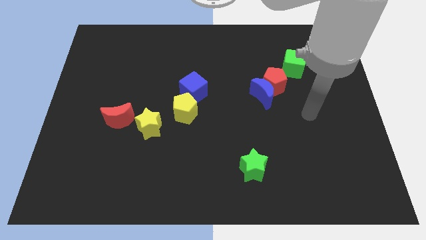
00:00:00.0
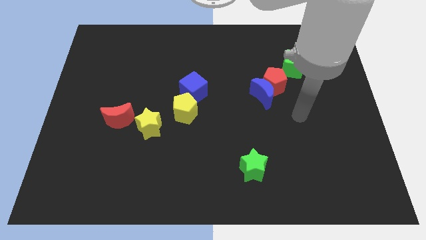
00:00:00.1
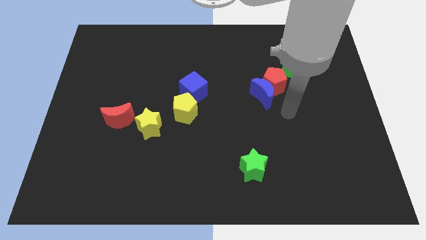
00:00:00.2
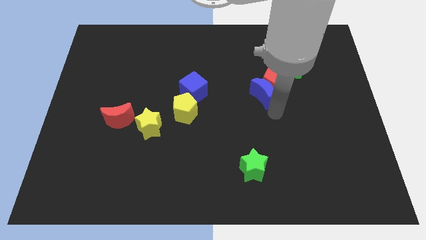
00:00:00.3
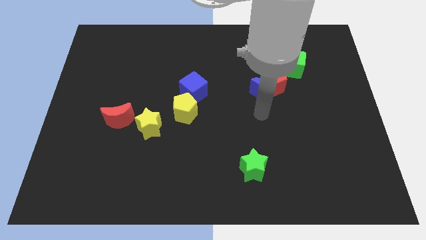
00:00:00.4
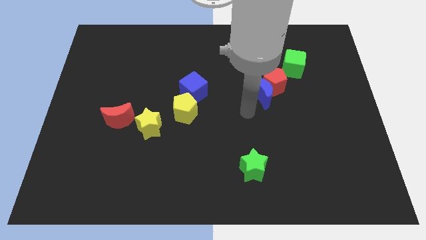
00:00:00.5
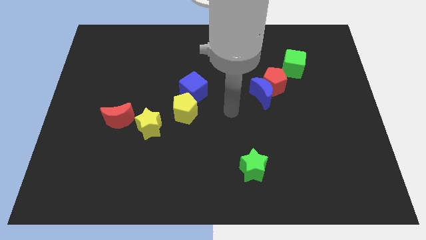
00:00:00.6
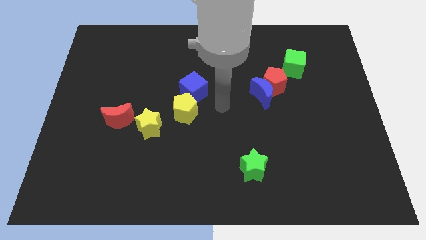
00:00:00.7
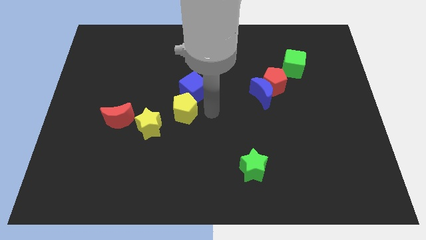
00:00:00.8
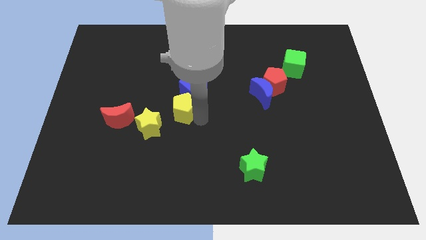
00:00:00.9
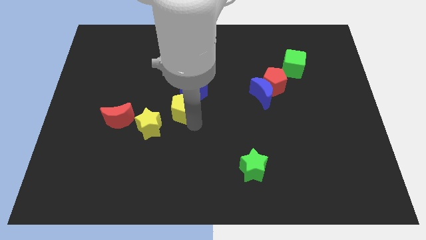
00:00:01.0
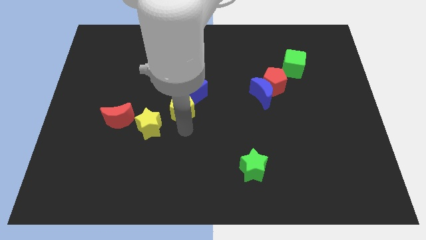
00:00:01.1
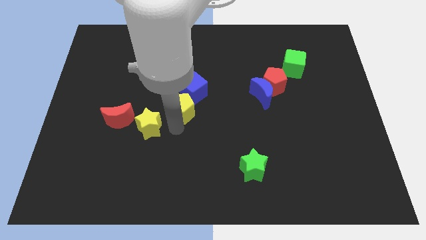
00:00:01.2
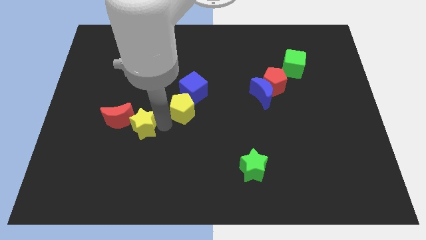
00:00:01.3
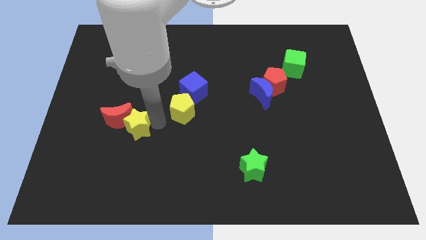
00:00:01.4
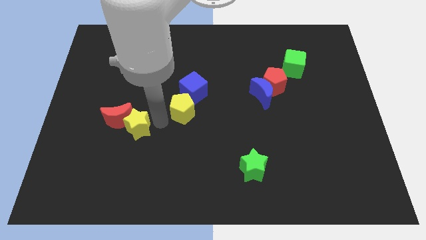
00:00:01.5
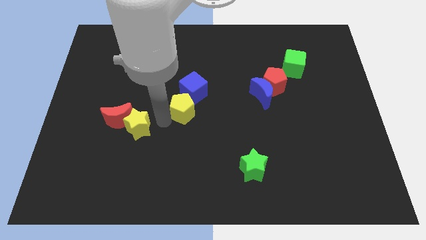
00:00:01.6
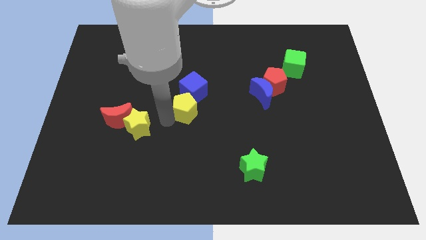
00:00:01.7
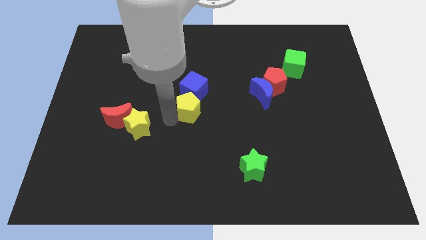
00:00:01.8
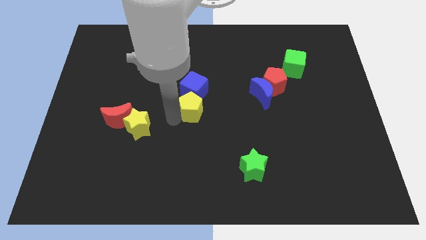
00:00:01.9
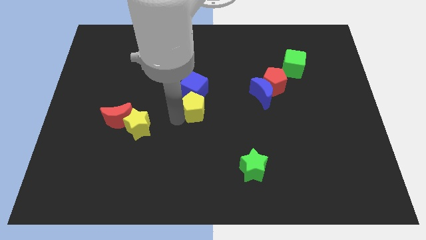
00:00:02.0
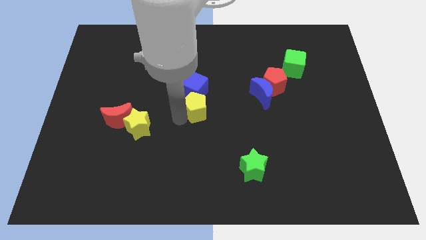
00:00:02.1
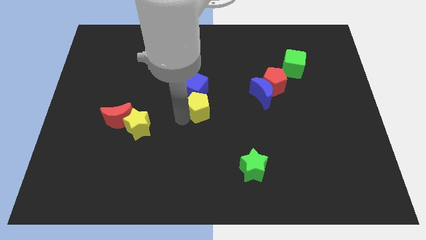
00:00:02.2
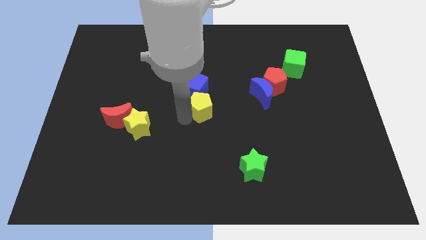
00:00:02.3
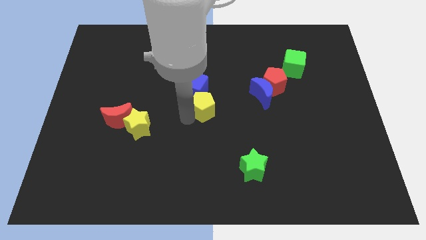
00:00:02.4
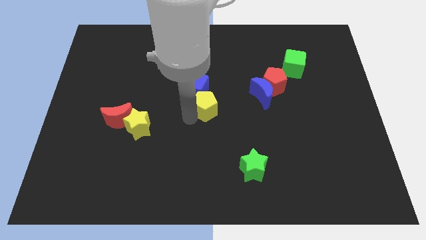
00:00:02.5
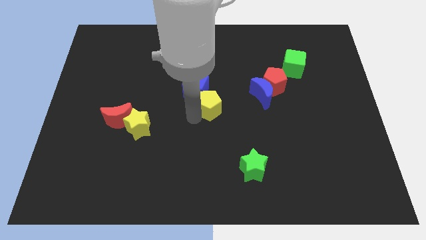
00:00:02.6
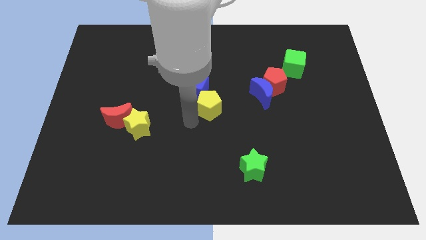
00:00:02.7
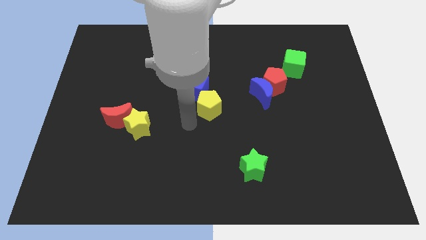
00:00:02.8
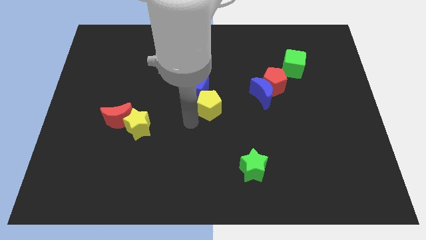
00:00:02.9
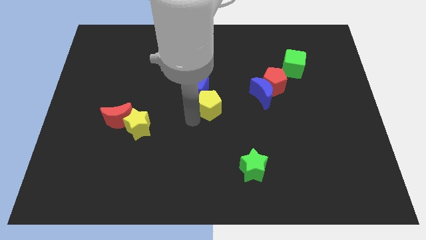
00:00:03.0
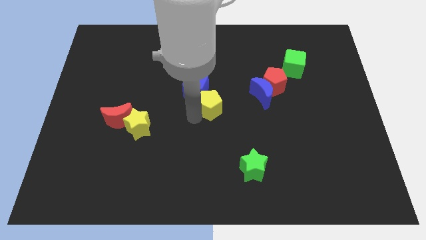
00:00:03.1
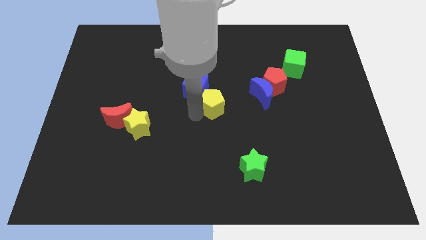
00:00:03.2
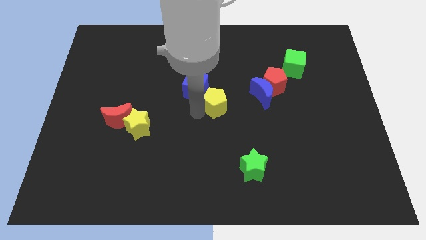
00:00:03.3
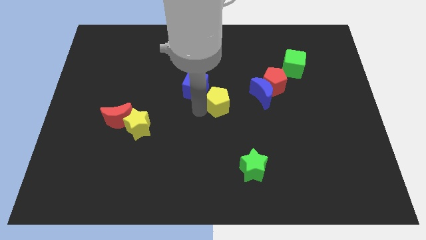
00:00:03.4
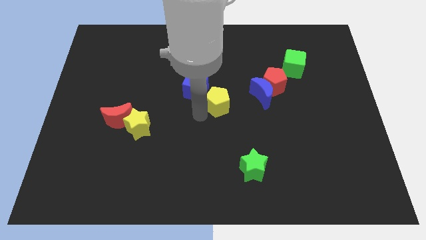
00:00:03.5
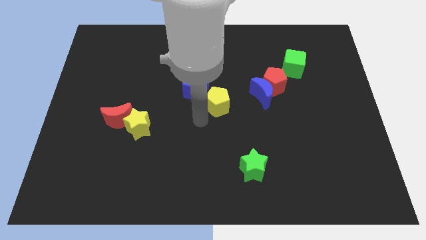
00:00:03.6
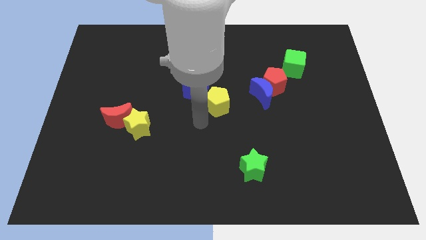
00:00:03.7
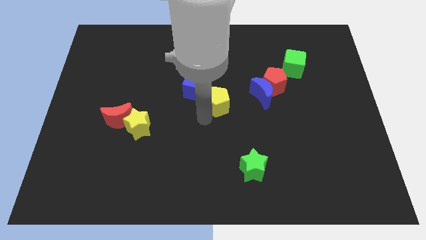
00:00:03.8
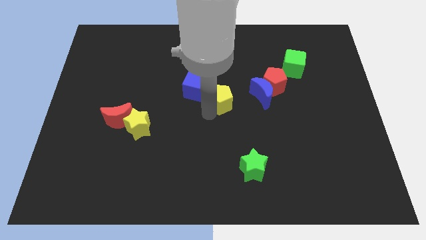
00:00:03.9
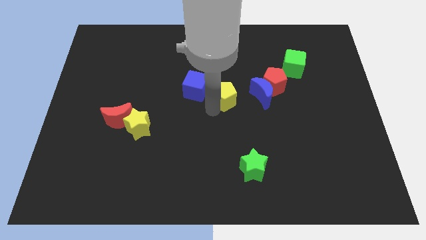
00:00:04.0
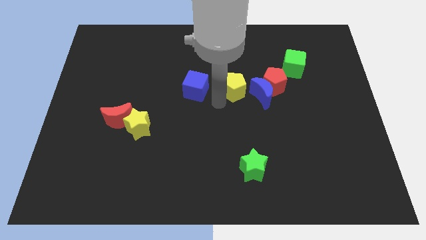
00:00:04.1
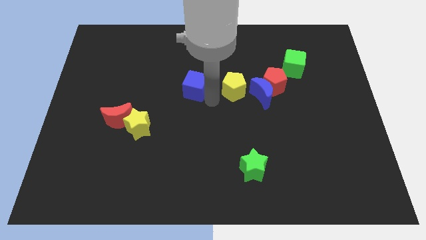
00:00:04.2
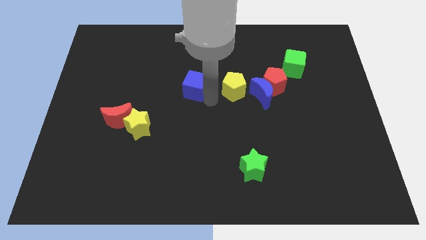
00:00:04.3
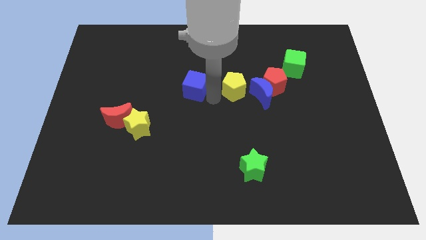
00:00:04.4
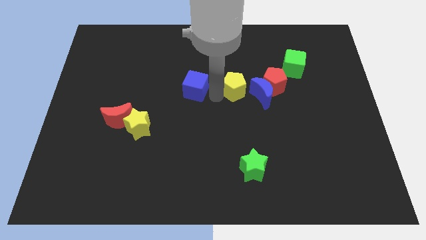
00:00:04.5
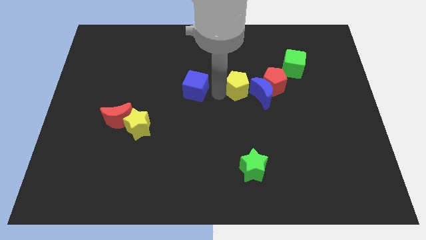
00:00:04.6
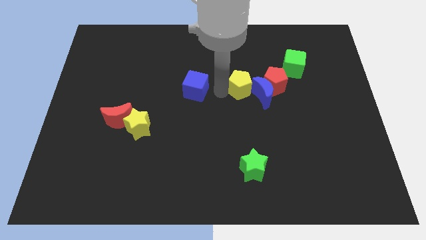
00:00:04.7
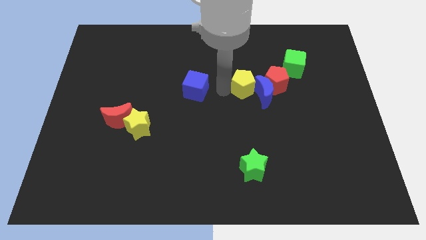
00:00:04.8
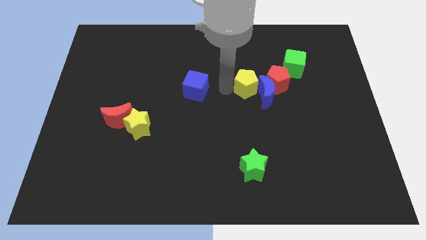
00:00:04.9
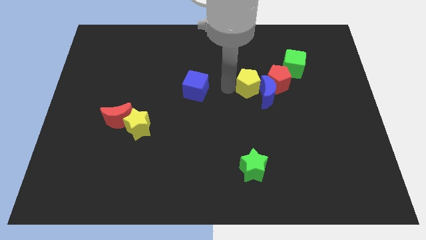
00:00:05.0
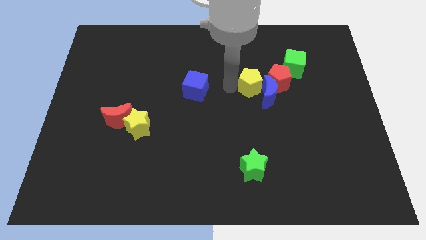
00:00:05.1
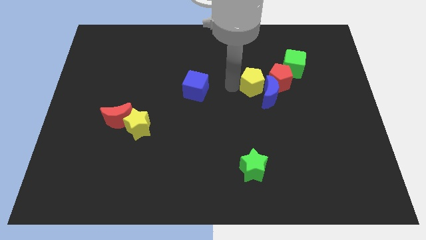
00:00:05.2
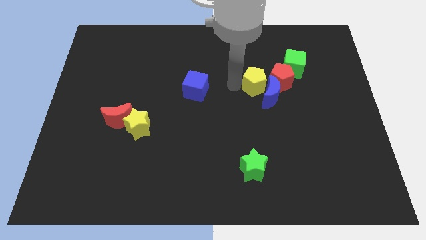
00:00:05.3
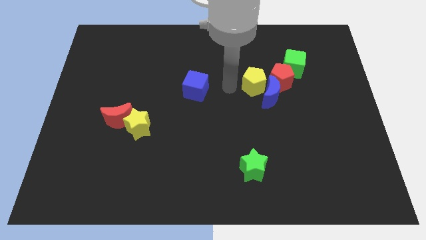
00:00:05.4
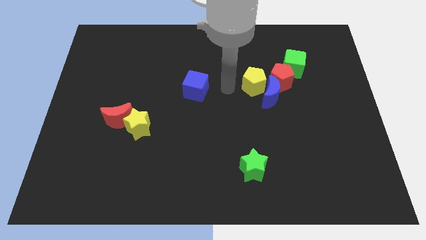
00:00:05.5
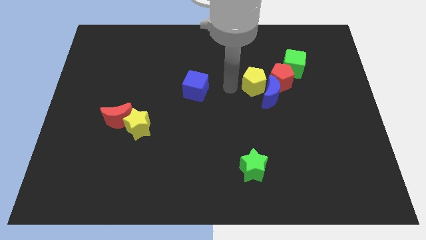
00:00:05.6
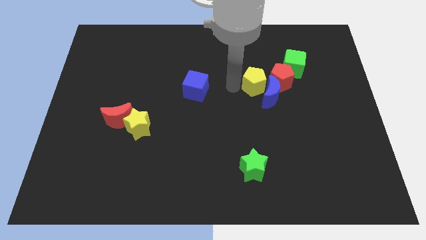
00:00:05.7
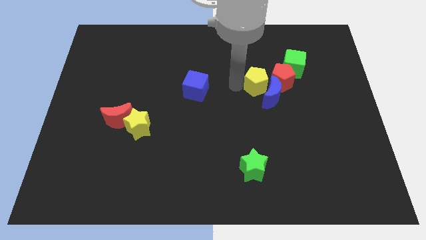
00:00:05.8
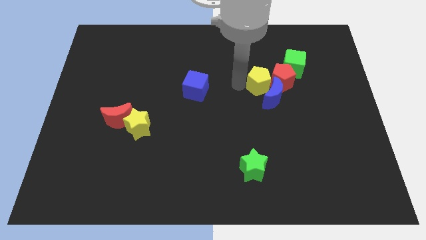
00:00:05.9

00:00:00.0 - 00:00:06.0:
slide the yellow pentagon next to the red pentagon

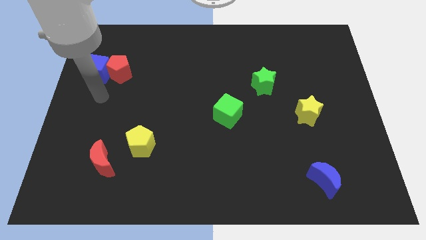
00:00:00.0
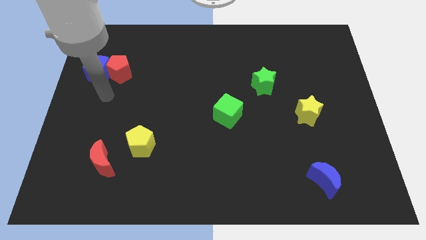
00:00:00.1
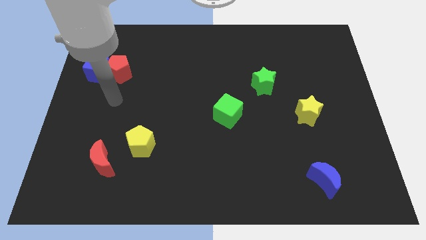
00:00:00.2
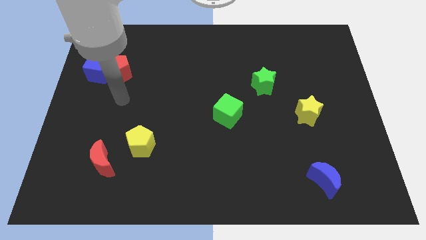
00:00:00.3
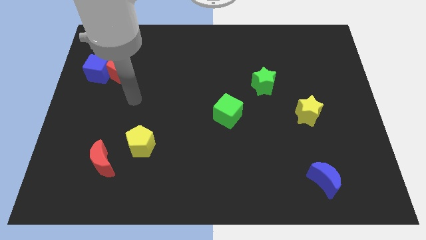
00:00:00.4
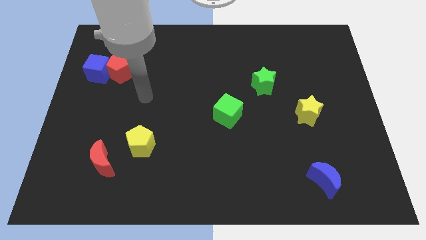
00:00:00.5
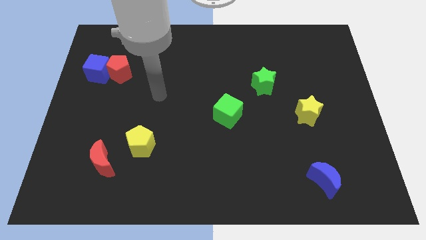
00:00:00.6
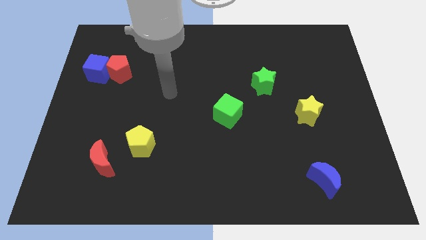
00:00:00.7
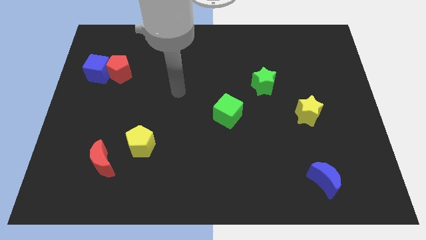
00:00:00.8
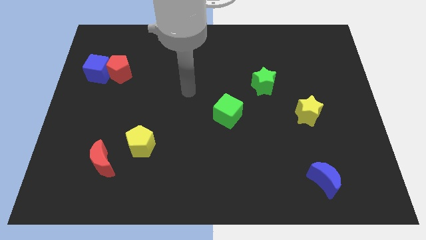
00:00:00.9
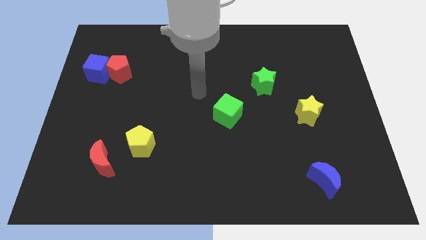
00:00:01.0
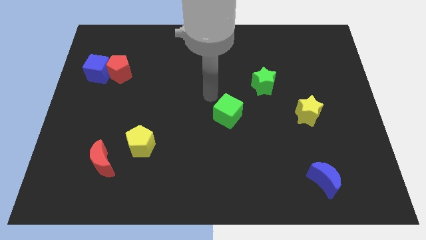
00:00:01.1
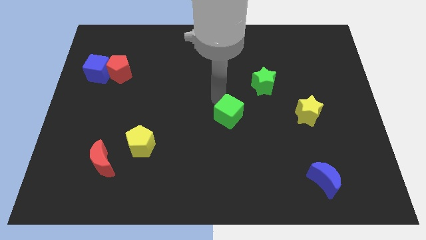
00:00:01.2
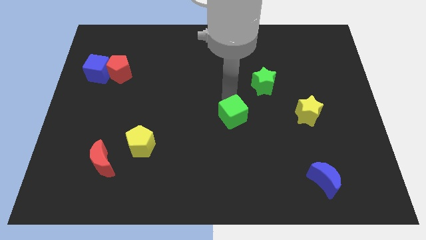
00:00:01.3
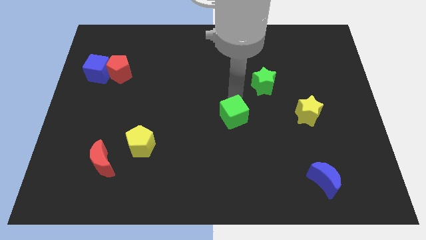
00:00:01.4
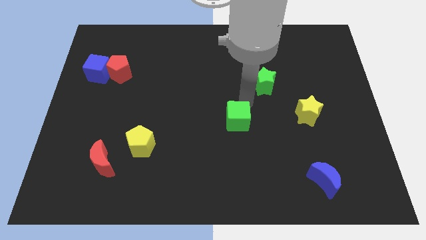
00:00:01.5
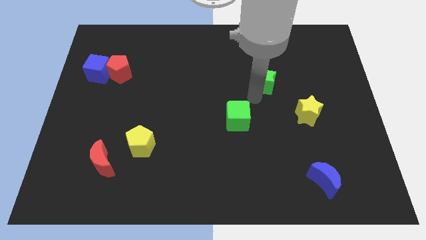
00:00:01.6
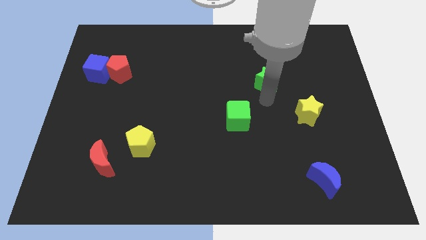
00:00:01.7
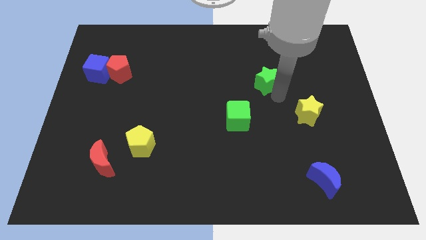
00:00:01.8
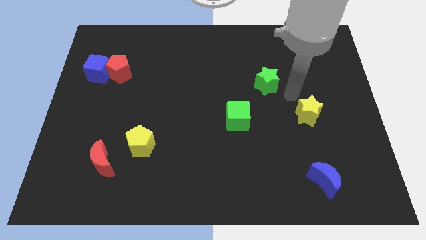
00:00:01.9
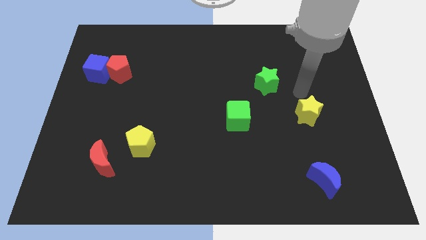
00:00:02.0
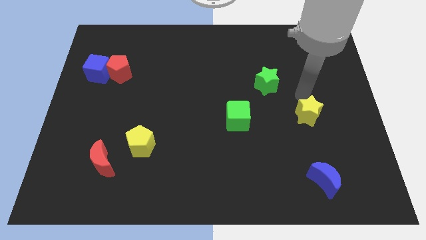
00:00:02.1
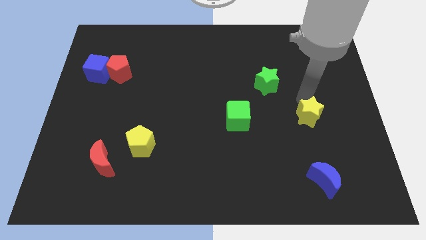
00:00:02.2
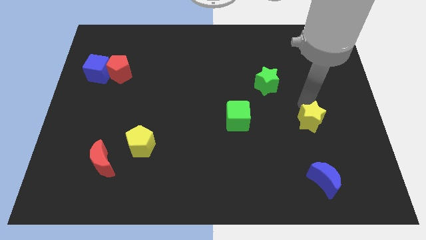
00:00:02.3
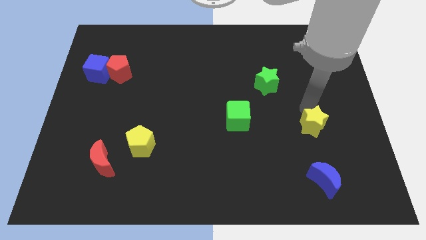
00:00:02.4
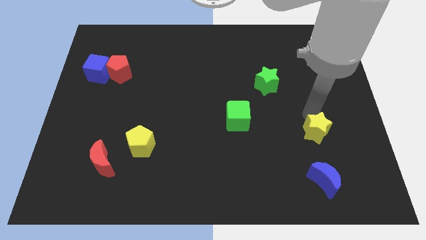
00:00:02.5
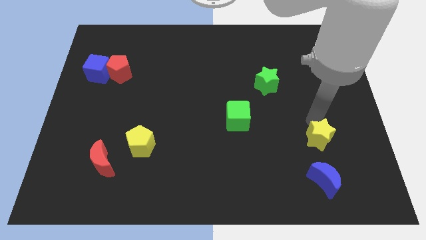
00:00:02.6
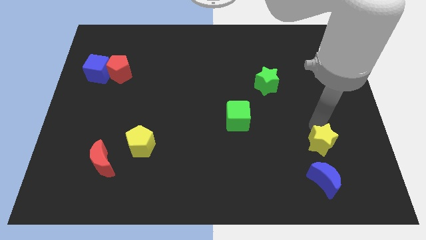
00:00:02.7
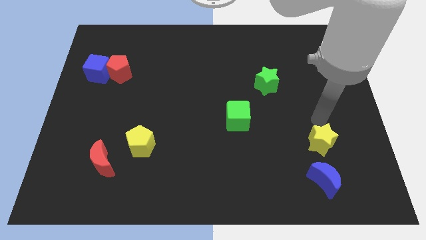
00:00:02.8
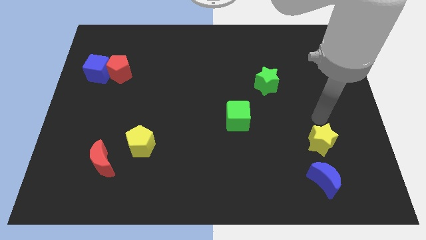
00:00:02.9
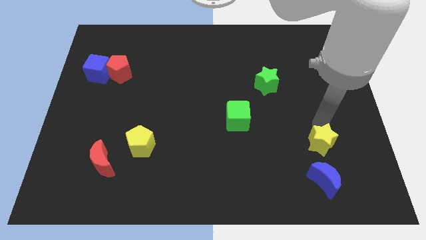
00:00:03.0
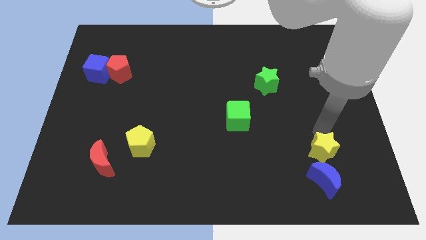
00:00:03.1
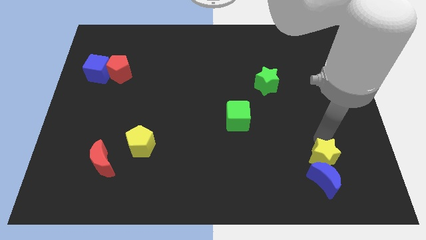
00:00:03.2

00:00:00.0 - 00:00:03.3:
slide the yellow star close to the blue moon
